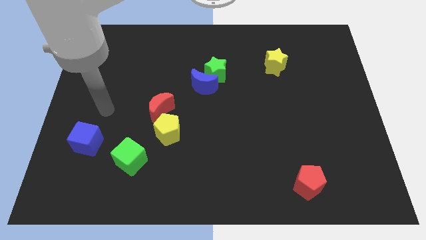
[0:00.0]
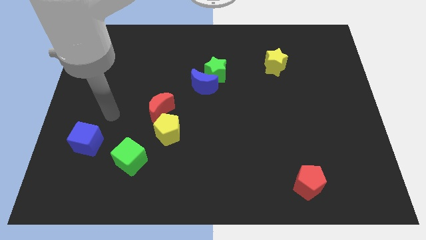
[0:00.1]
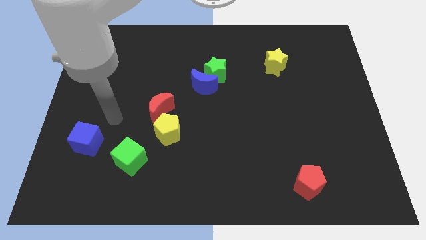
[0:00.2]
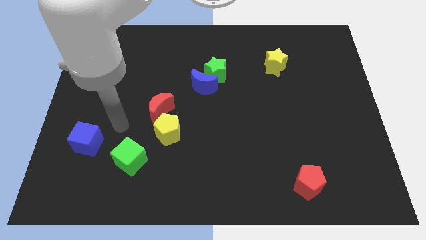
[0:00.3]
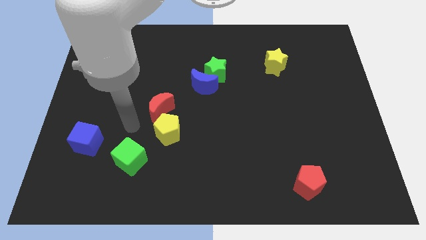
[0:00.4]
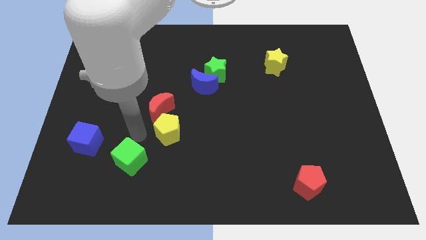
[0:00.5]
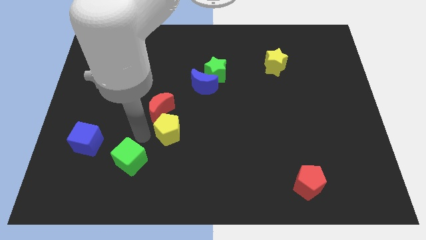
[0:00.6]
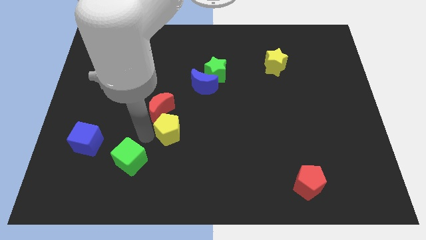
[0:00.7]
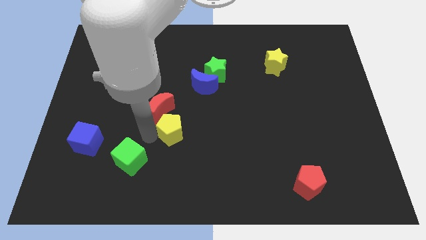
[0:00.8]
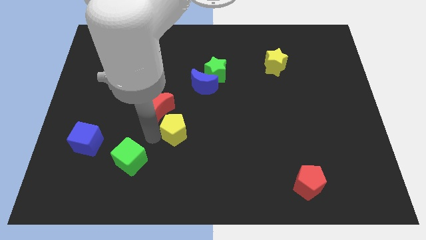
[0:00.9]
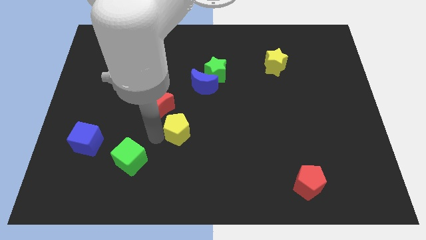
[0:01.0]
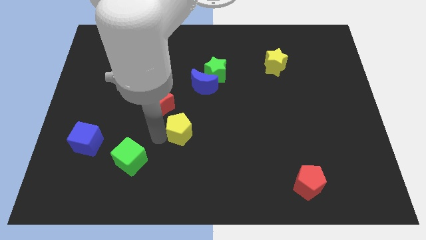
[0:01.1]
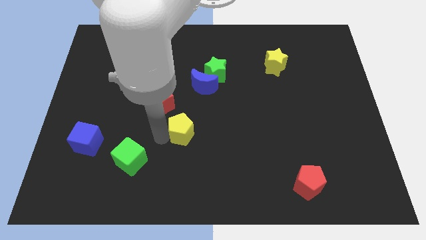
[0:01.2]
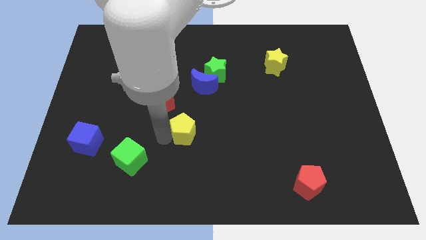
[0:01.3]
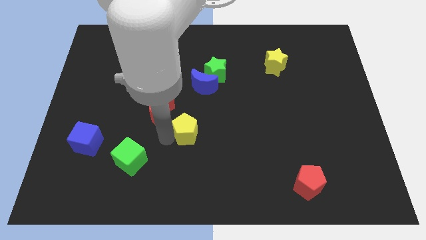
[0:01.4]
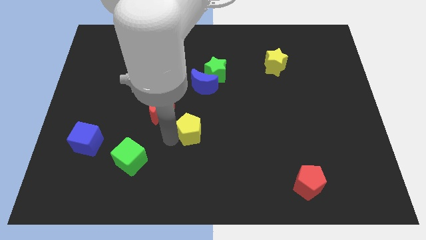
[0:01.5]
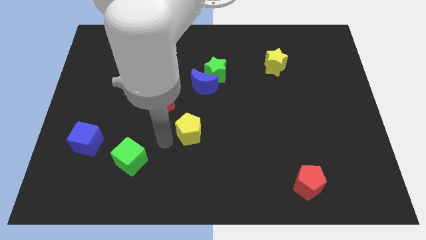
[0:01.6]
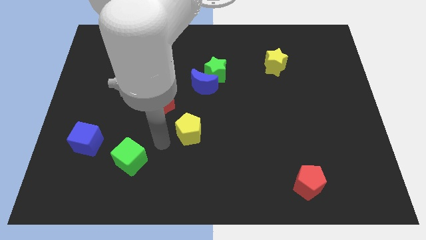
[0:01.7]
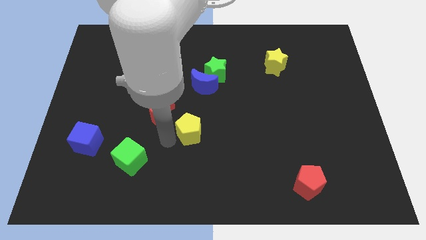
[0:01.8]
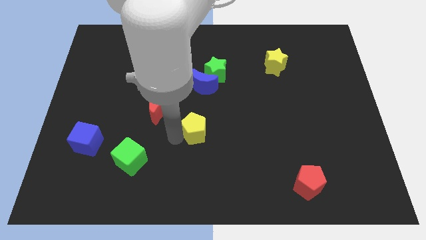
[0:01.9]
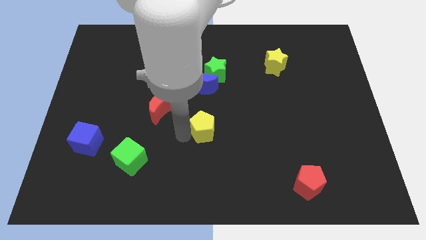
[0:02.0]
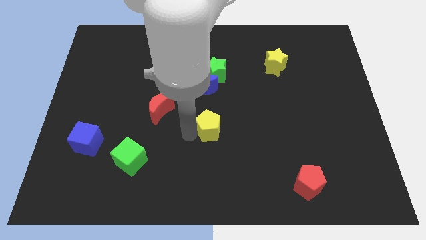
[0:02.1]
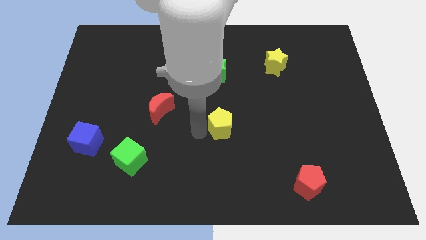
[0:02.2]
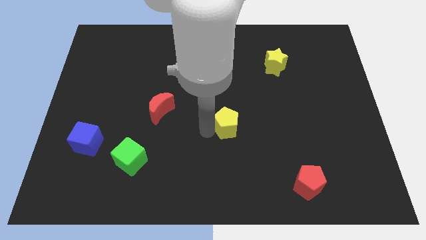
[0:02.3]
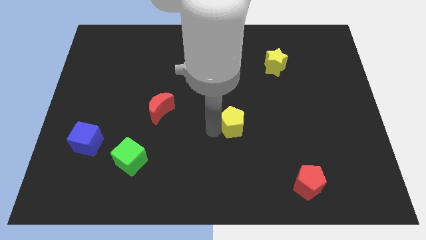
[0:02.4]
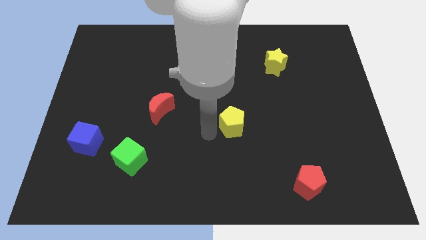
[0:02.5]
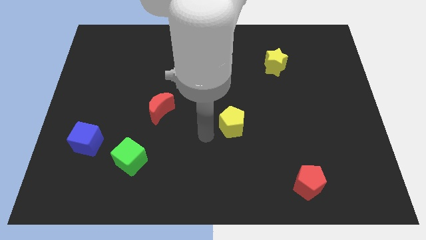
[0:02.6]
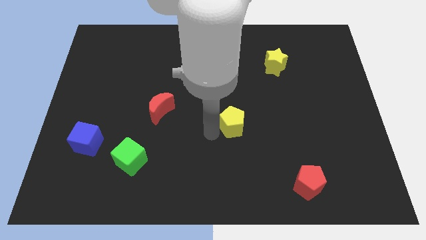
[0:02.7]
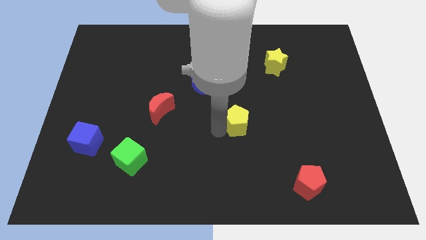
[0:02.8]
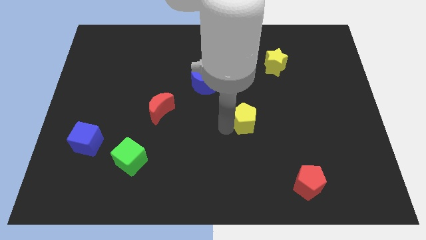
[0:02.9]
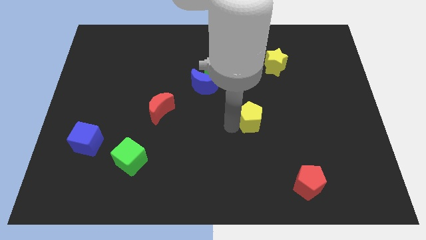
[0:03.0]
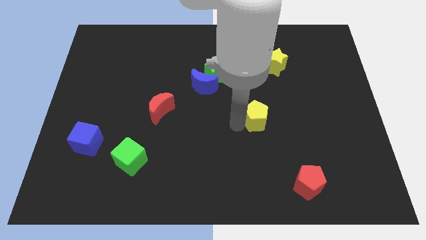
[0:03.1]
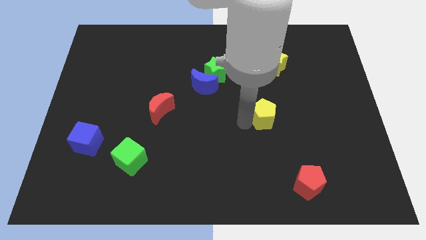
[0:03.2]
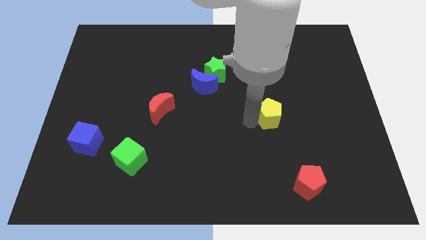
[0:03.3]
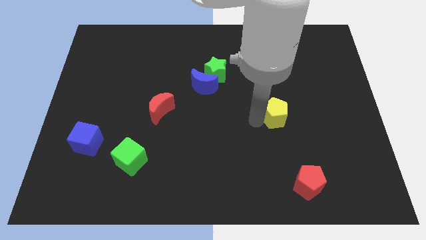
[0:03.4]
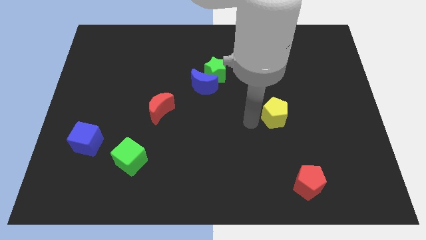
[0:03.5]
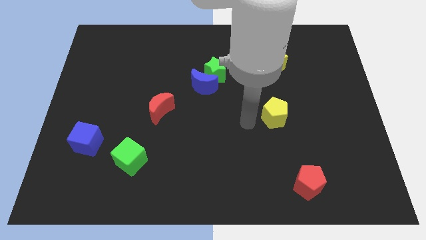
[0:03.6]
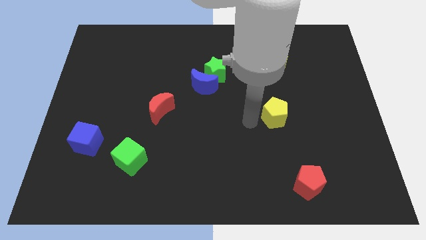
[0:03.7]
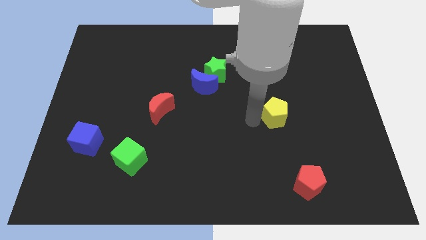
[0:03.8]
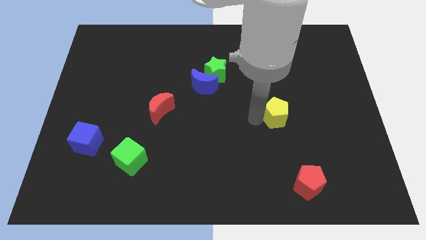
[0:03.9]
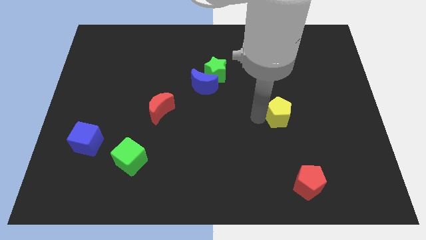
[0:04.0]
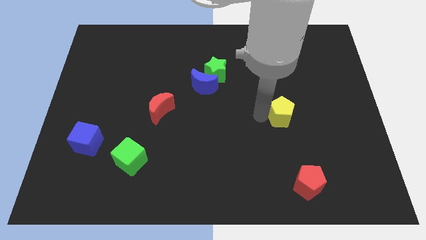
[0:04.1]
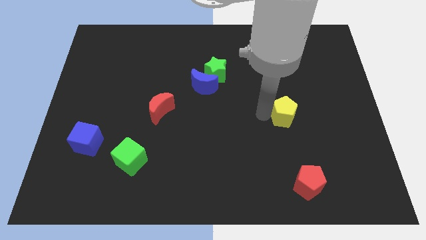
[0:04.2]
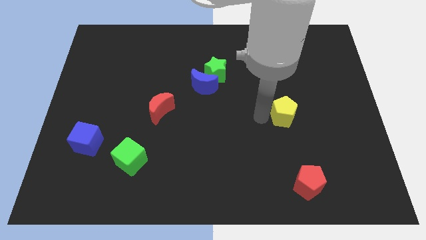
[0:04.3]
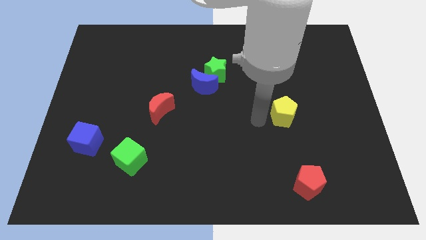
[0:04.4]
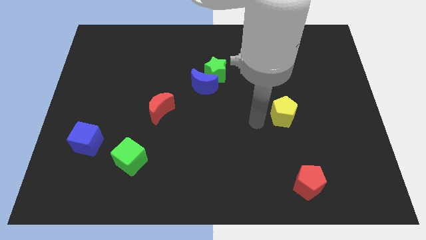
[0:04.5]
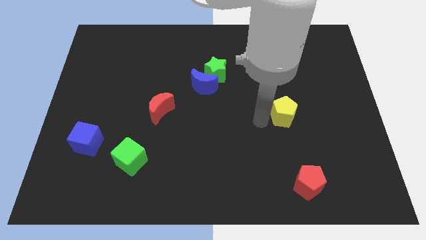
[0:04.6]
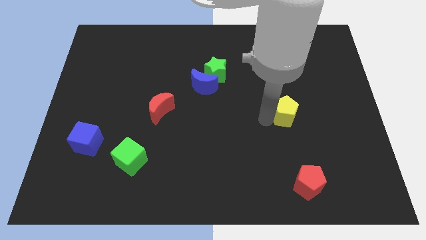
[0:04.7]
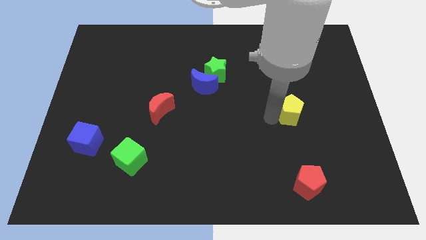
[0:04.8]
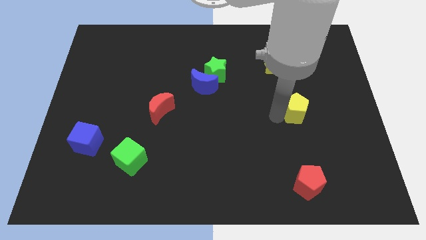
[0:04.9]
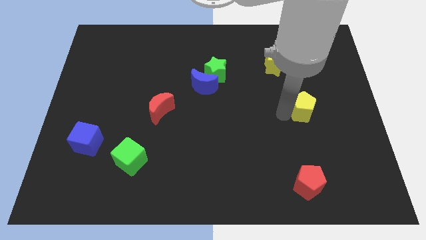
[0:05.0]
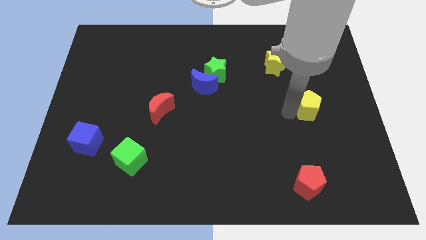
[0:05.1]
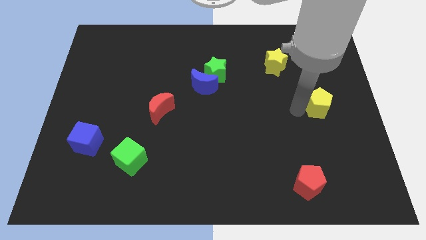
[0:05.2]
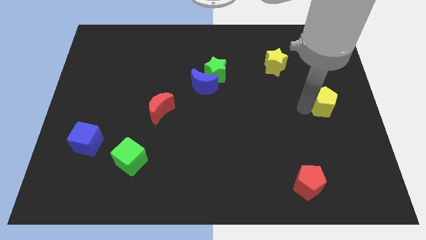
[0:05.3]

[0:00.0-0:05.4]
move the yellow pentagon to the center right
